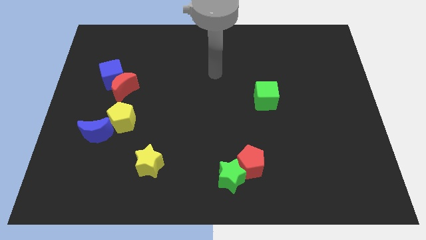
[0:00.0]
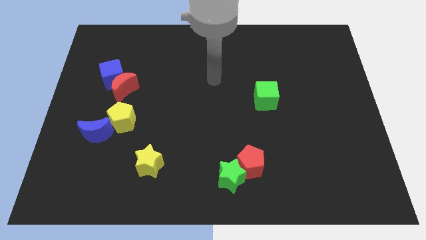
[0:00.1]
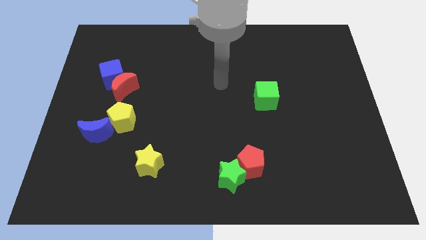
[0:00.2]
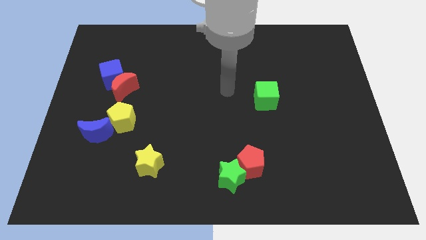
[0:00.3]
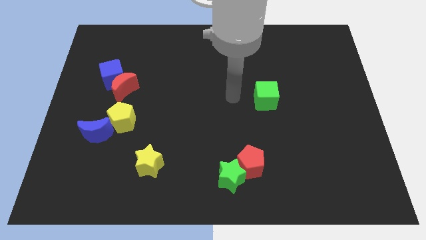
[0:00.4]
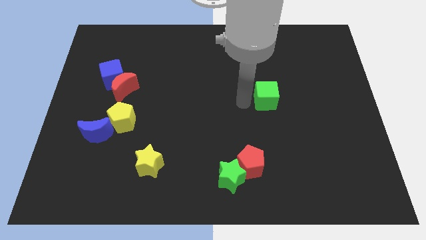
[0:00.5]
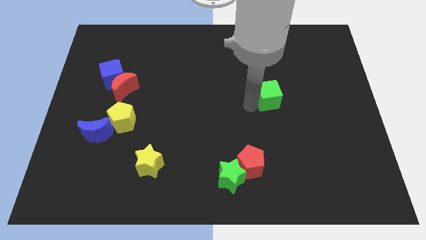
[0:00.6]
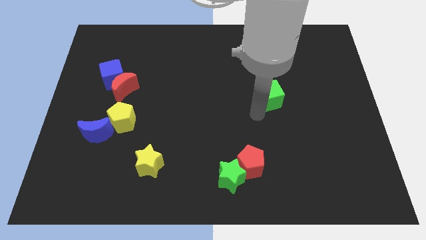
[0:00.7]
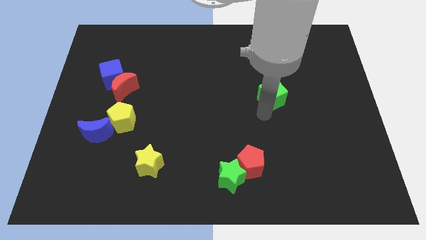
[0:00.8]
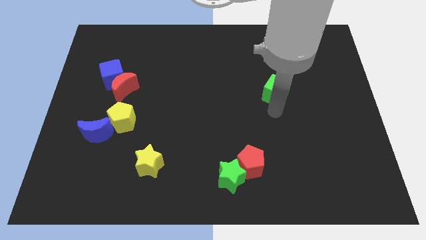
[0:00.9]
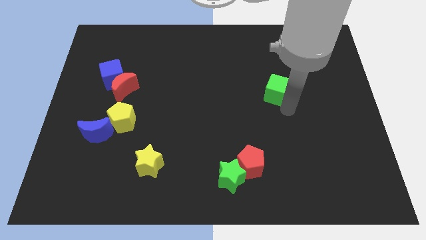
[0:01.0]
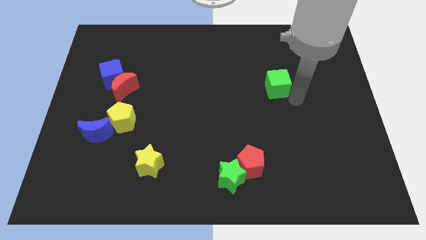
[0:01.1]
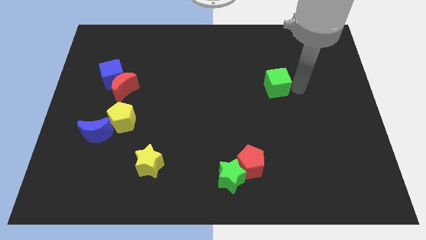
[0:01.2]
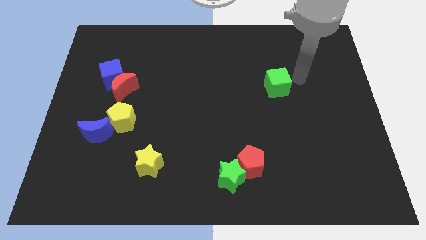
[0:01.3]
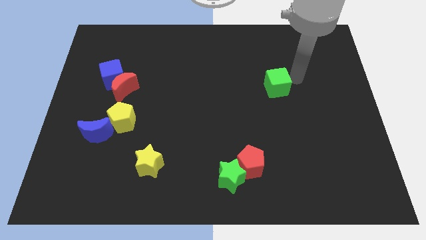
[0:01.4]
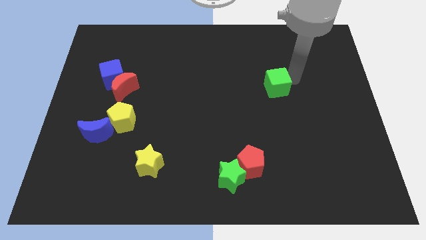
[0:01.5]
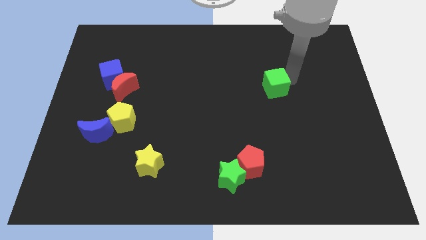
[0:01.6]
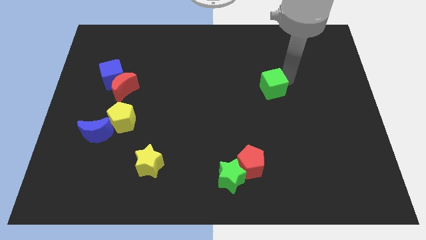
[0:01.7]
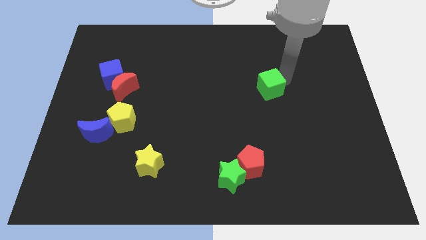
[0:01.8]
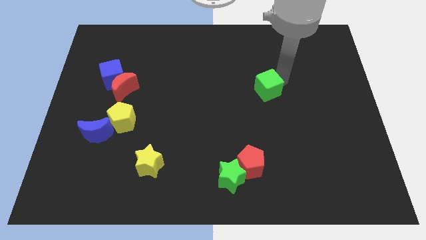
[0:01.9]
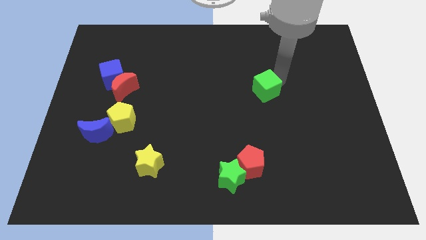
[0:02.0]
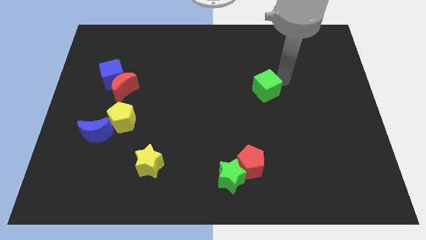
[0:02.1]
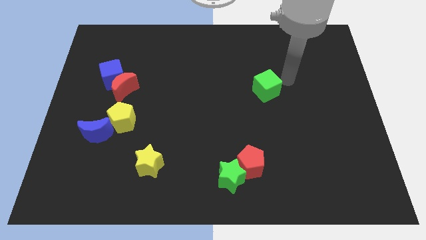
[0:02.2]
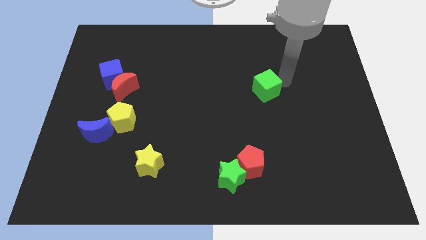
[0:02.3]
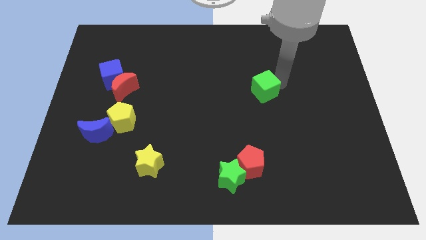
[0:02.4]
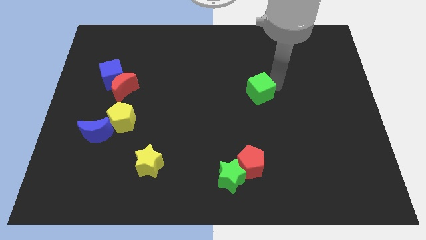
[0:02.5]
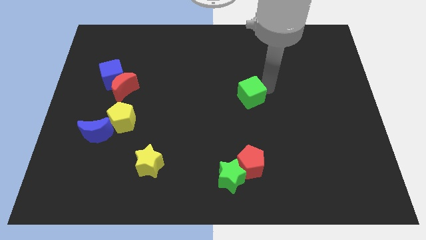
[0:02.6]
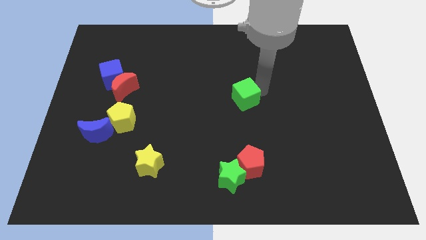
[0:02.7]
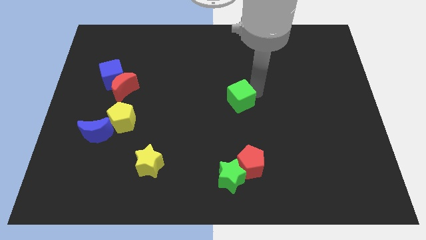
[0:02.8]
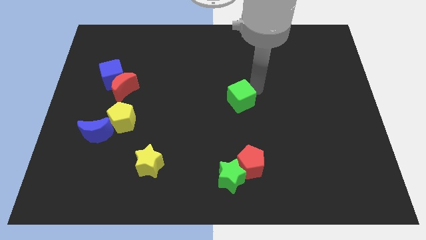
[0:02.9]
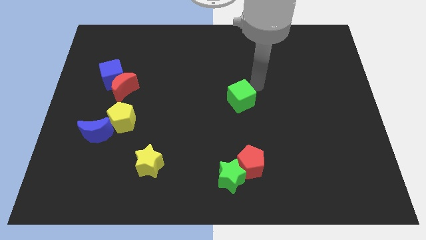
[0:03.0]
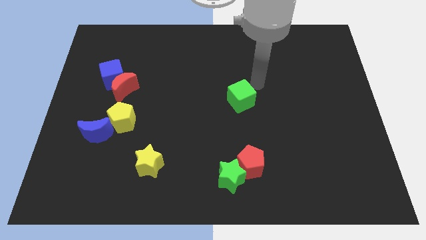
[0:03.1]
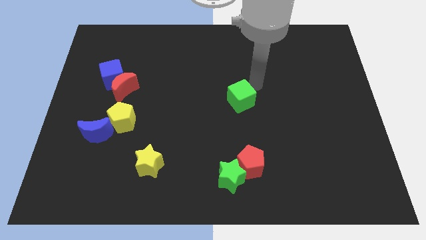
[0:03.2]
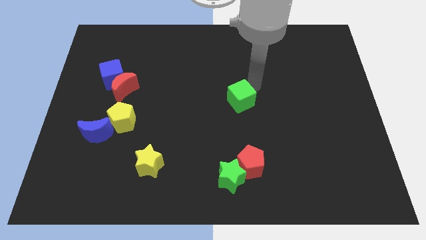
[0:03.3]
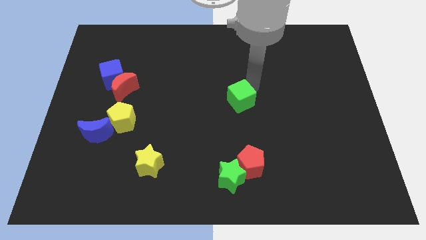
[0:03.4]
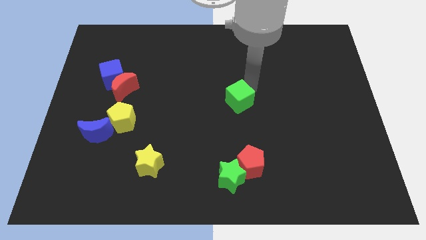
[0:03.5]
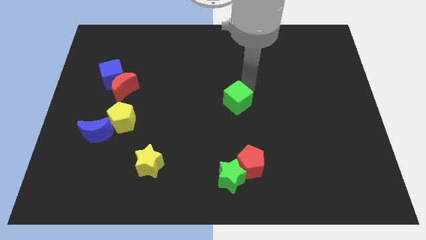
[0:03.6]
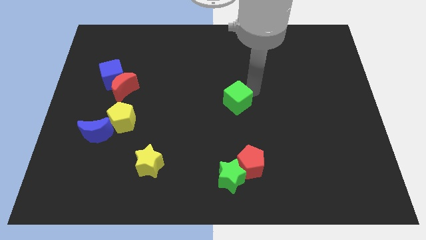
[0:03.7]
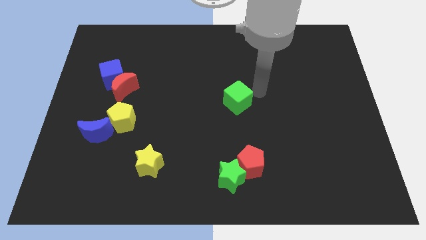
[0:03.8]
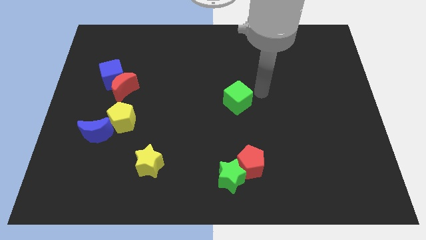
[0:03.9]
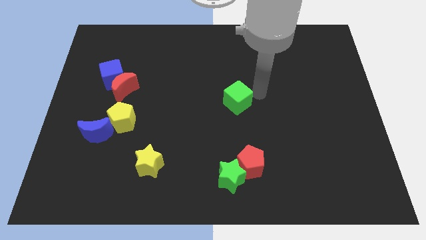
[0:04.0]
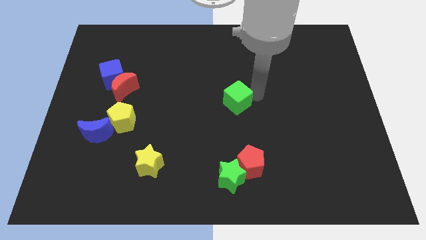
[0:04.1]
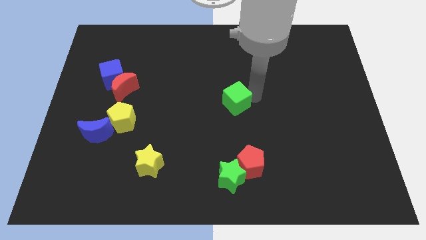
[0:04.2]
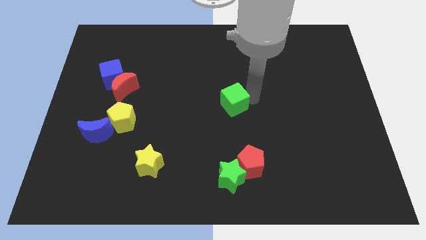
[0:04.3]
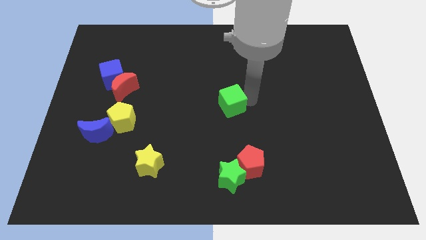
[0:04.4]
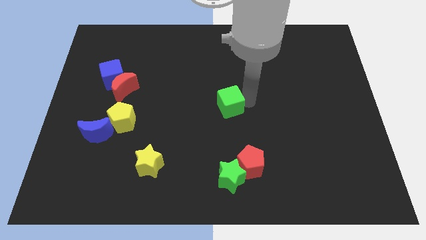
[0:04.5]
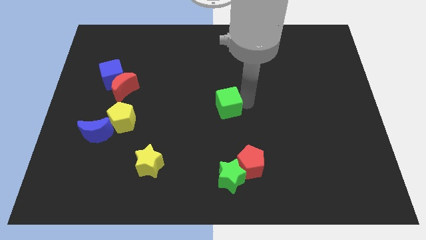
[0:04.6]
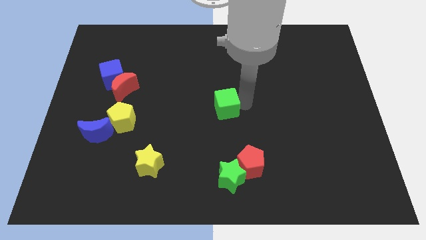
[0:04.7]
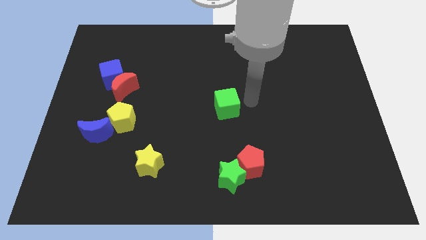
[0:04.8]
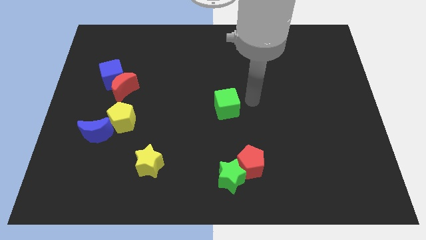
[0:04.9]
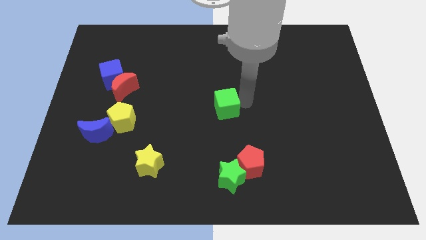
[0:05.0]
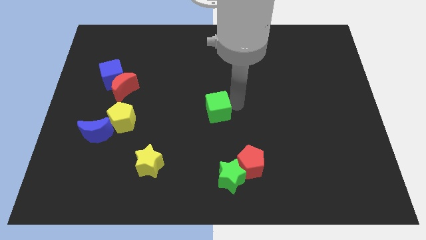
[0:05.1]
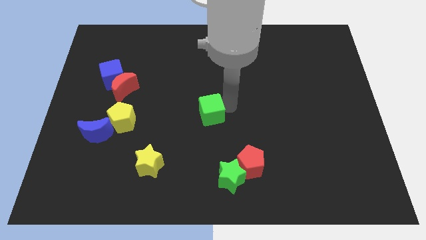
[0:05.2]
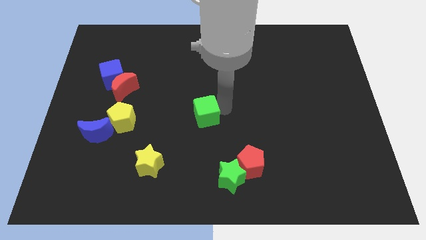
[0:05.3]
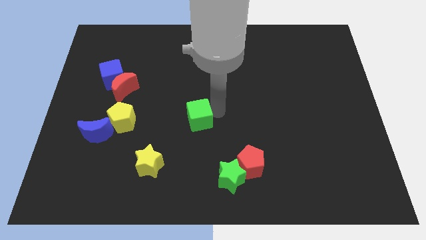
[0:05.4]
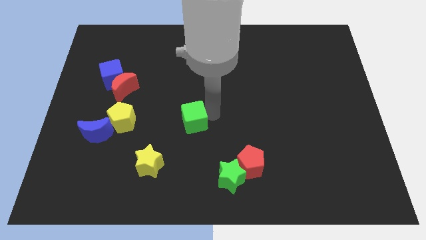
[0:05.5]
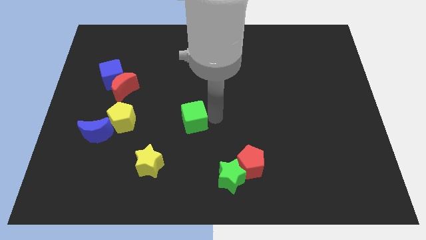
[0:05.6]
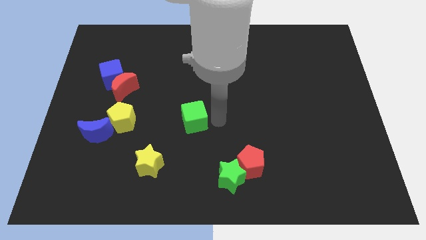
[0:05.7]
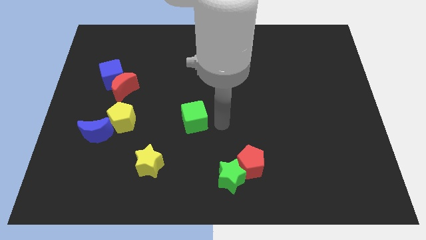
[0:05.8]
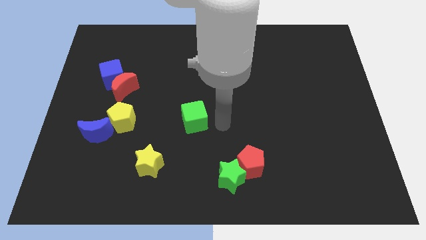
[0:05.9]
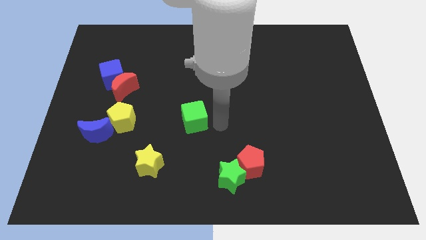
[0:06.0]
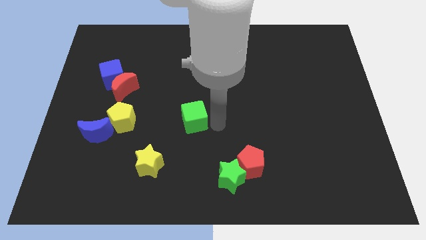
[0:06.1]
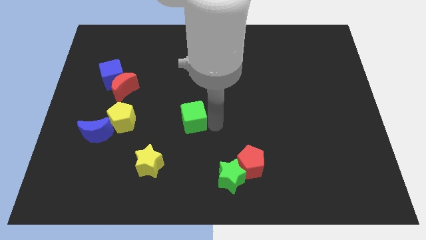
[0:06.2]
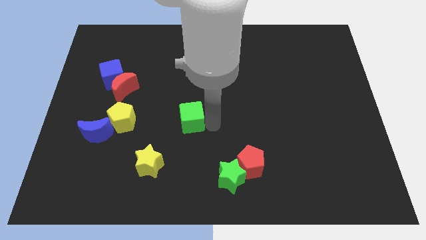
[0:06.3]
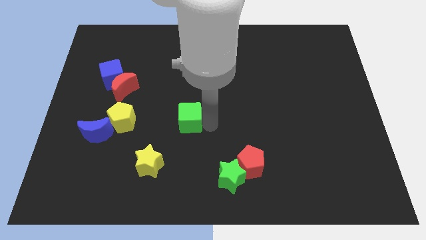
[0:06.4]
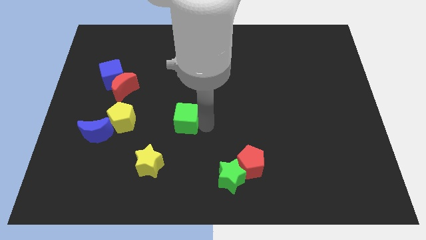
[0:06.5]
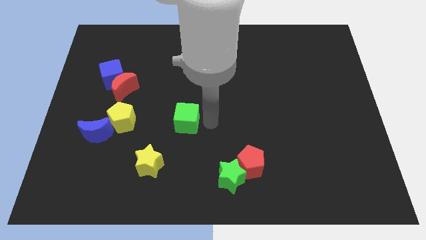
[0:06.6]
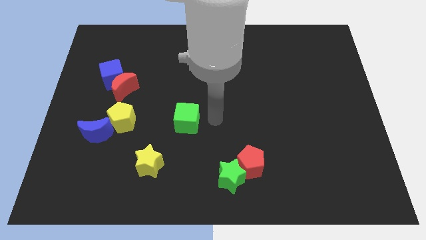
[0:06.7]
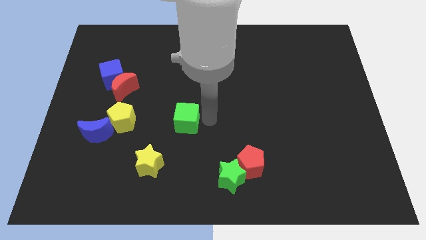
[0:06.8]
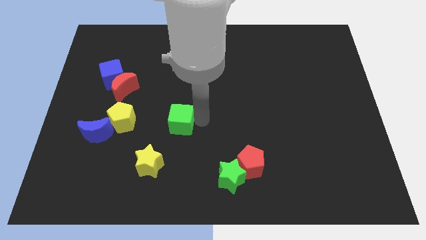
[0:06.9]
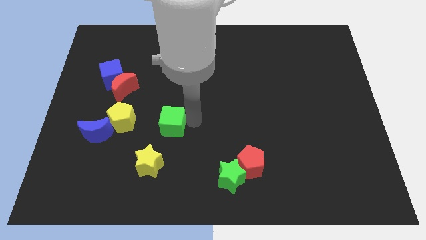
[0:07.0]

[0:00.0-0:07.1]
move the green cube above the yellow star

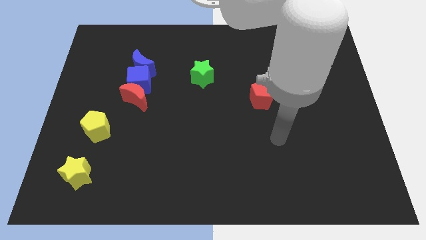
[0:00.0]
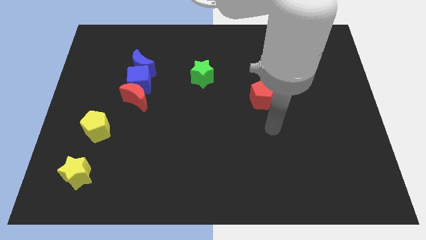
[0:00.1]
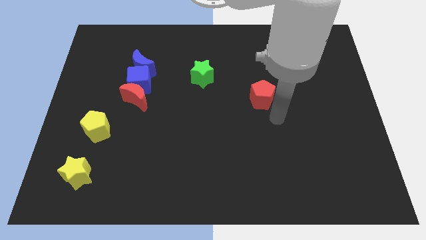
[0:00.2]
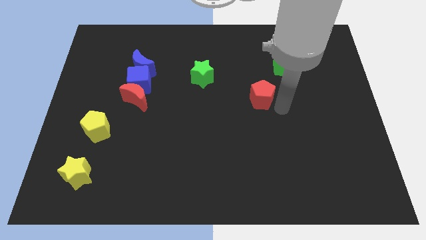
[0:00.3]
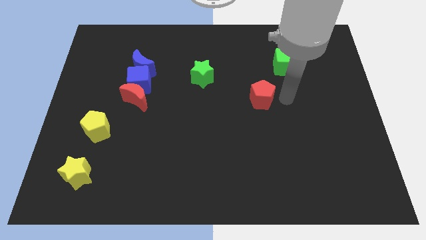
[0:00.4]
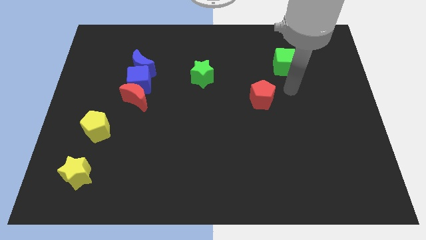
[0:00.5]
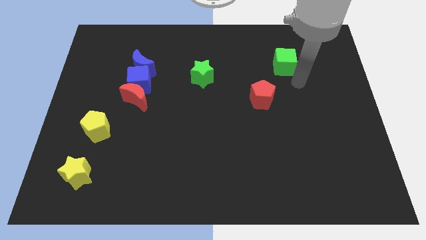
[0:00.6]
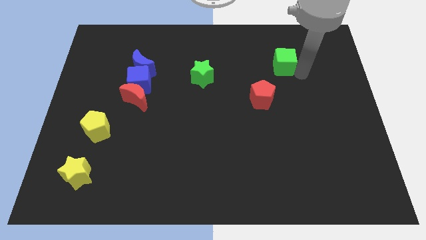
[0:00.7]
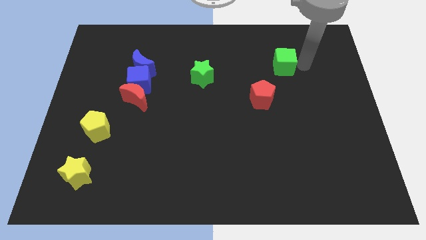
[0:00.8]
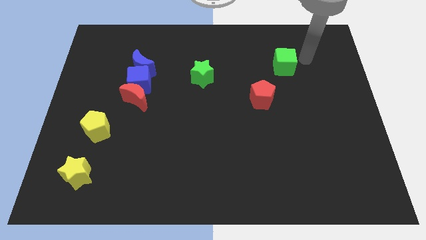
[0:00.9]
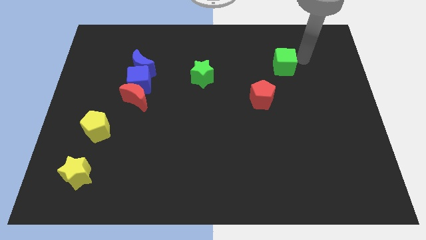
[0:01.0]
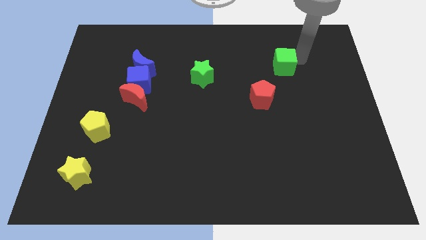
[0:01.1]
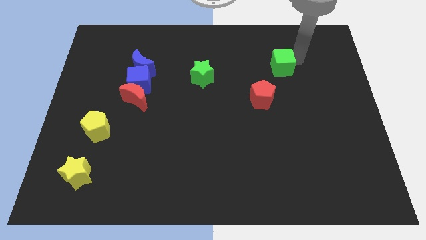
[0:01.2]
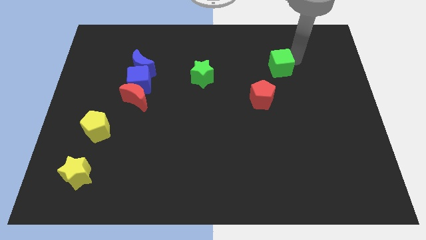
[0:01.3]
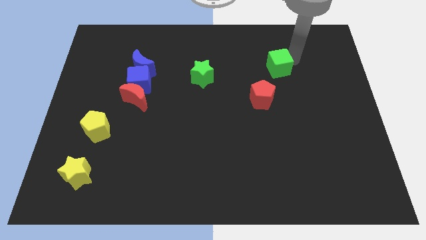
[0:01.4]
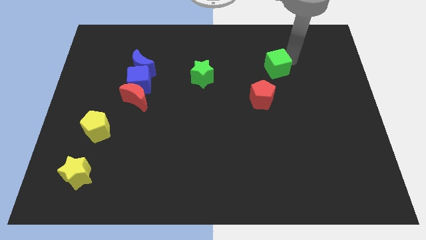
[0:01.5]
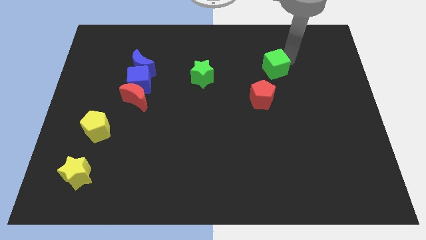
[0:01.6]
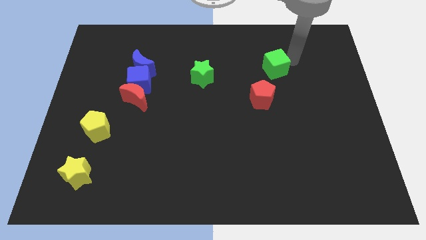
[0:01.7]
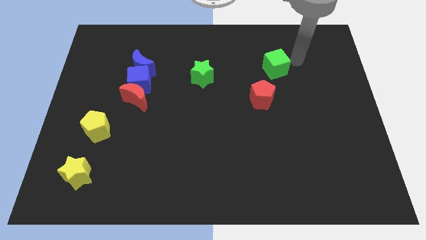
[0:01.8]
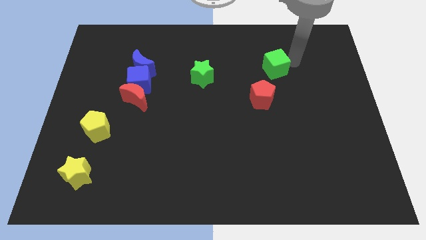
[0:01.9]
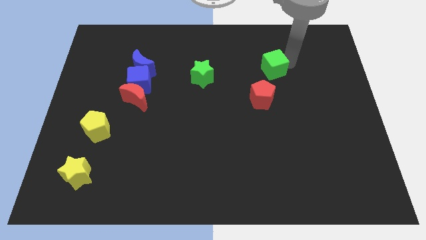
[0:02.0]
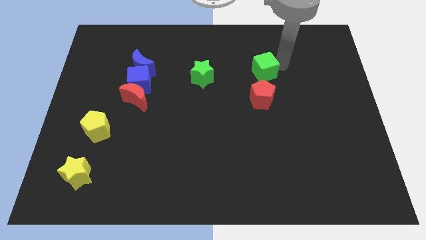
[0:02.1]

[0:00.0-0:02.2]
push the green cube to the right of the green star
